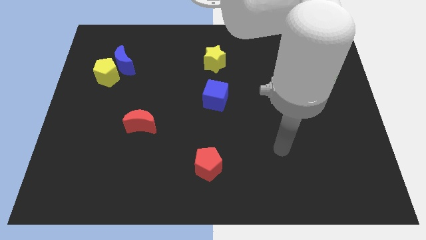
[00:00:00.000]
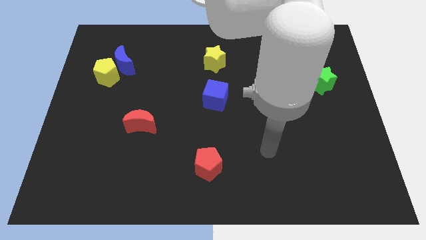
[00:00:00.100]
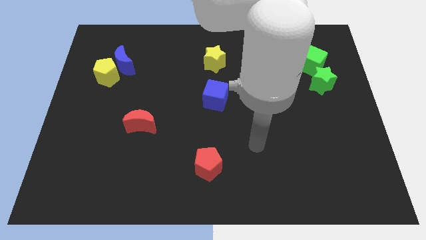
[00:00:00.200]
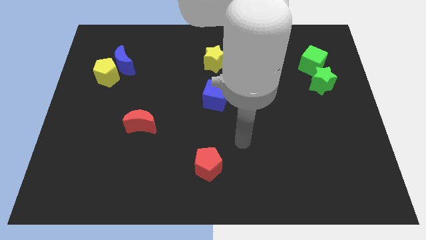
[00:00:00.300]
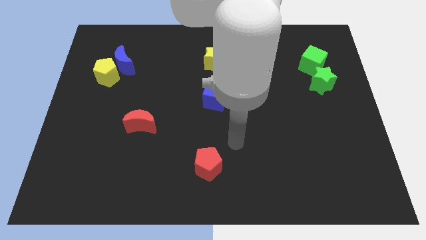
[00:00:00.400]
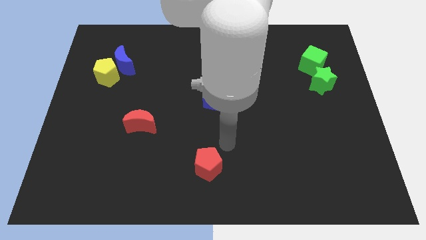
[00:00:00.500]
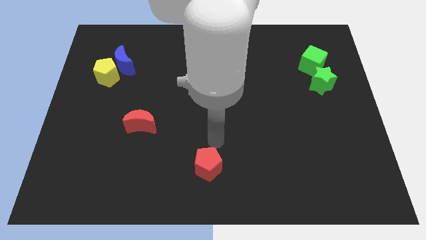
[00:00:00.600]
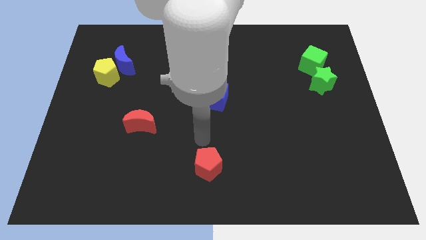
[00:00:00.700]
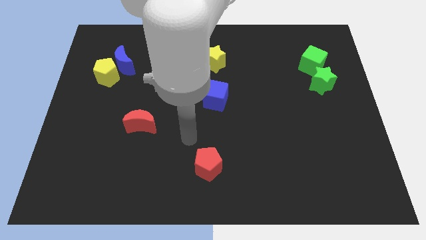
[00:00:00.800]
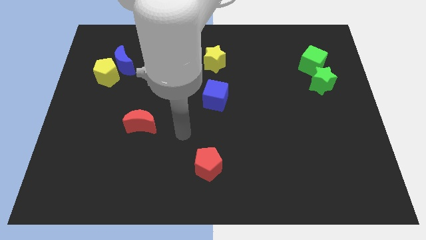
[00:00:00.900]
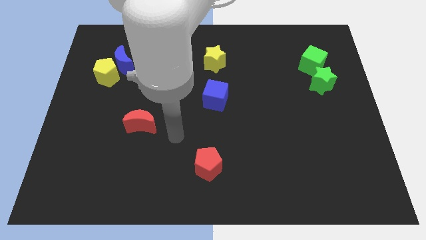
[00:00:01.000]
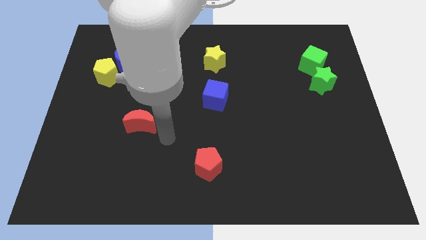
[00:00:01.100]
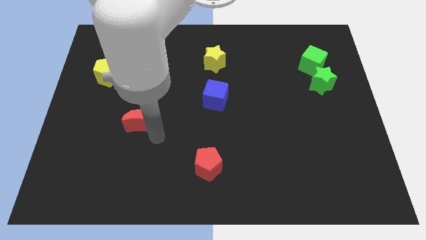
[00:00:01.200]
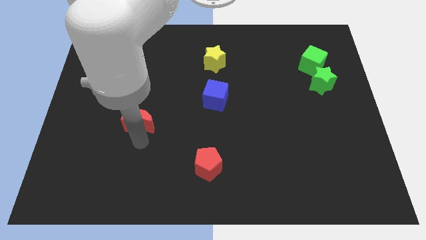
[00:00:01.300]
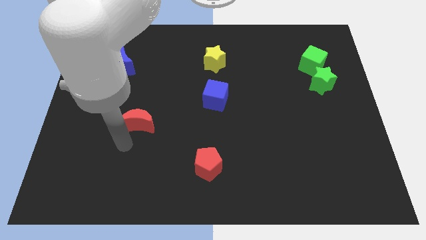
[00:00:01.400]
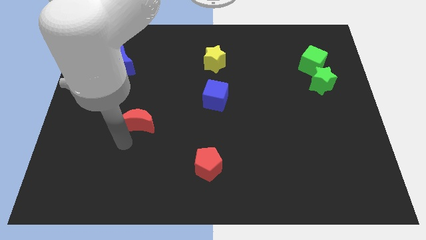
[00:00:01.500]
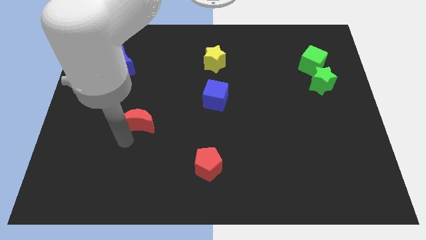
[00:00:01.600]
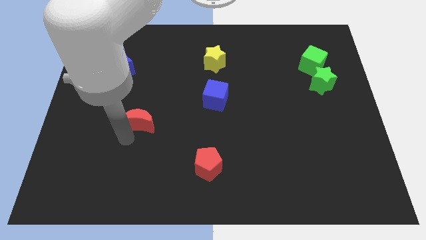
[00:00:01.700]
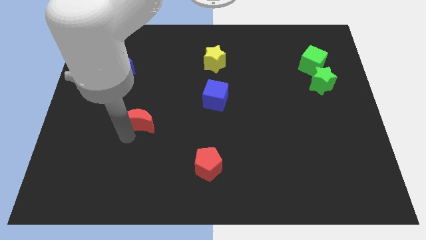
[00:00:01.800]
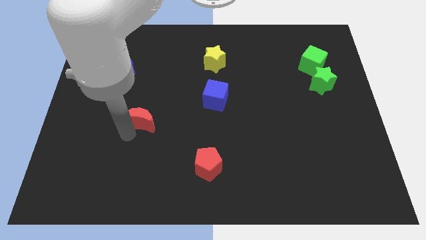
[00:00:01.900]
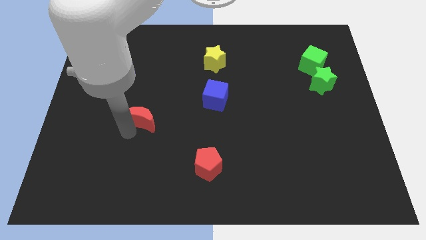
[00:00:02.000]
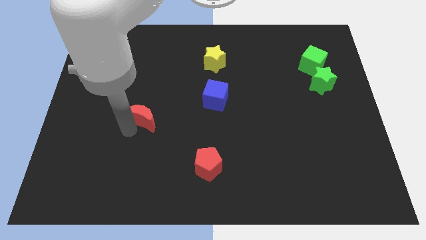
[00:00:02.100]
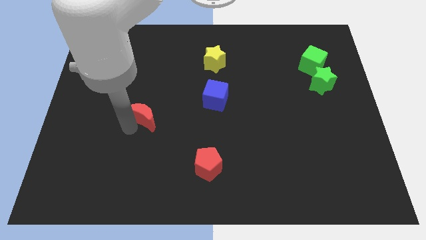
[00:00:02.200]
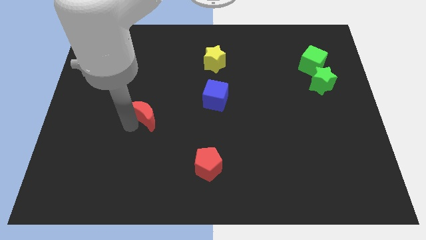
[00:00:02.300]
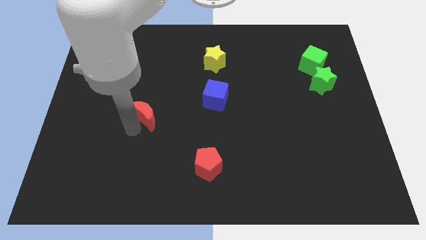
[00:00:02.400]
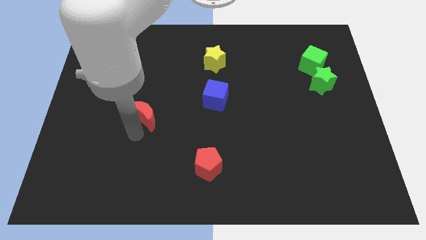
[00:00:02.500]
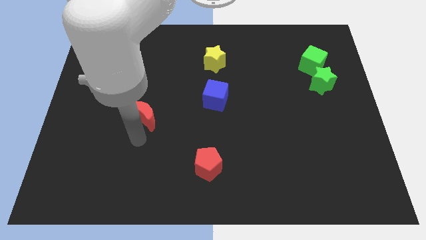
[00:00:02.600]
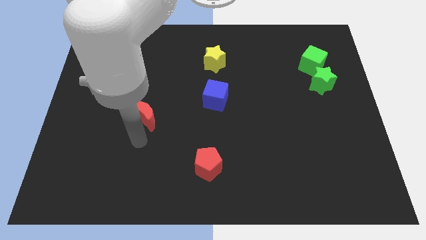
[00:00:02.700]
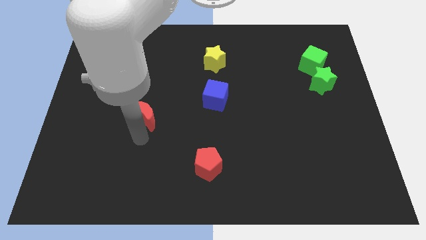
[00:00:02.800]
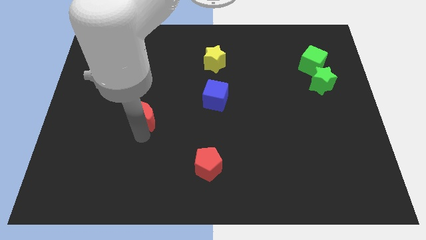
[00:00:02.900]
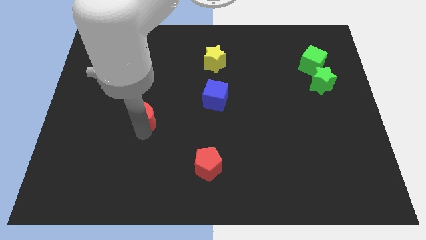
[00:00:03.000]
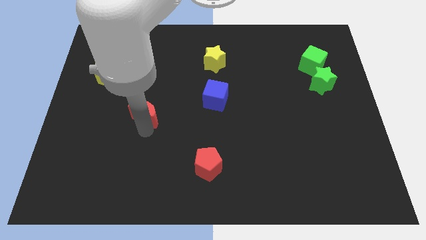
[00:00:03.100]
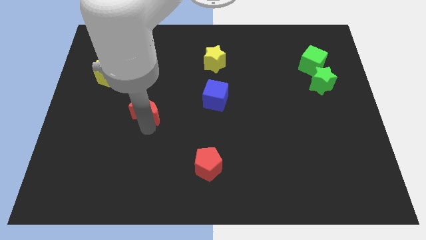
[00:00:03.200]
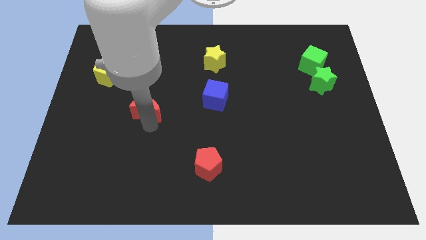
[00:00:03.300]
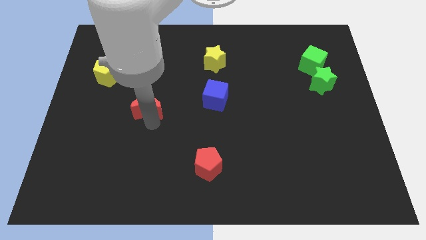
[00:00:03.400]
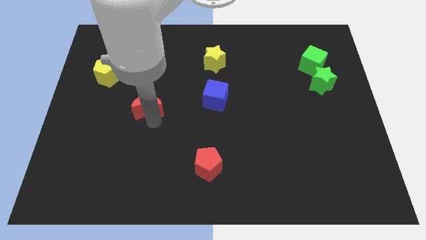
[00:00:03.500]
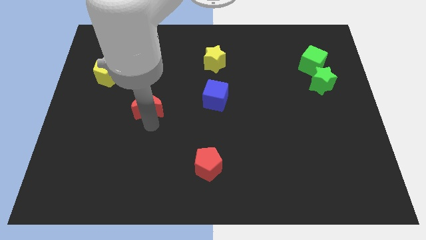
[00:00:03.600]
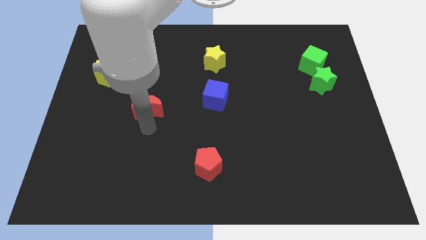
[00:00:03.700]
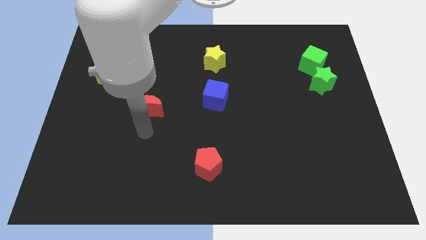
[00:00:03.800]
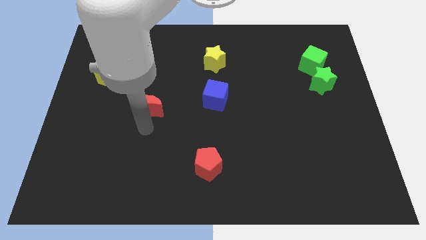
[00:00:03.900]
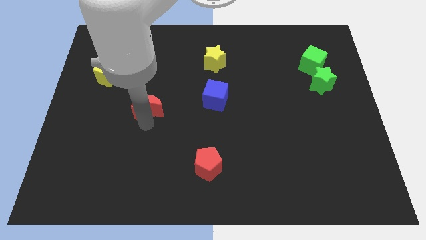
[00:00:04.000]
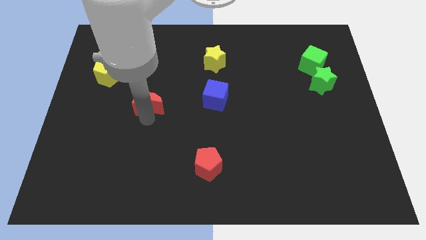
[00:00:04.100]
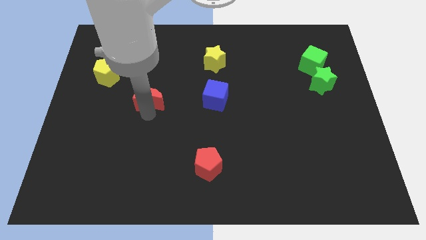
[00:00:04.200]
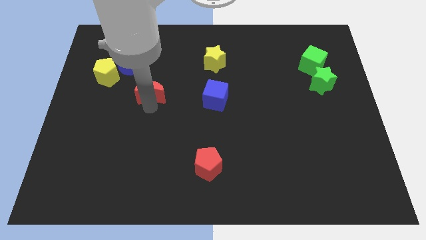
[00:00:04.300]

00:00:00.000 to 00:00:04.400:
push the red moon up a little bit

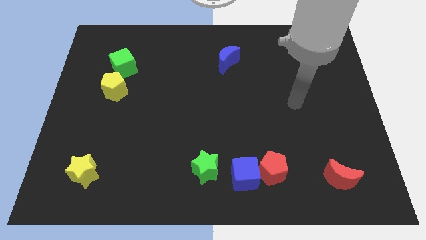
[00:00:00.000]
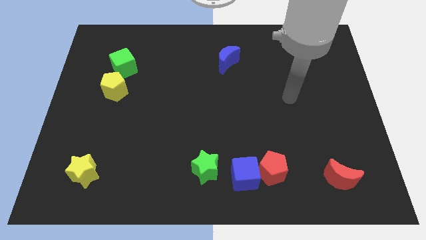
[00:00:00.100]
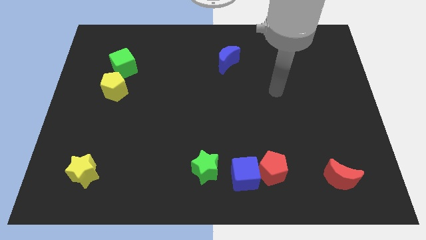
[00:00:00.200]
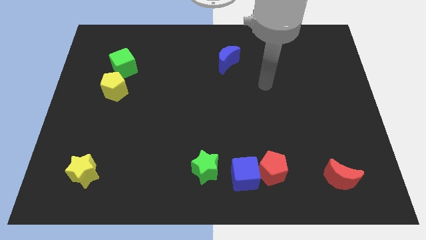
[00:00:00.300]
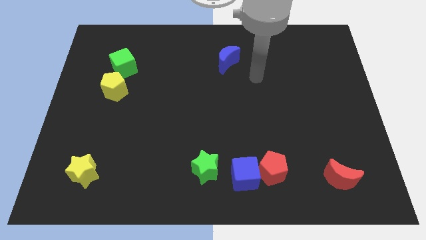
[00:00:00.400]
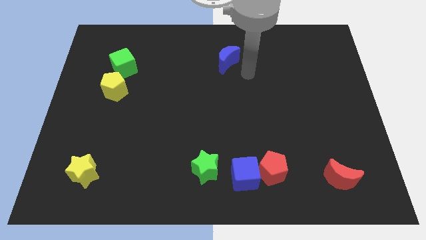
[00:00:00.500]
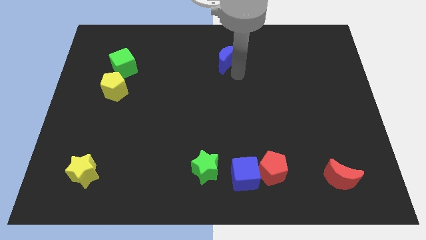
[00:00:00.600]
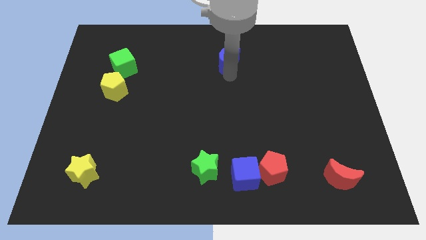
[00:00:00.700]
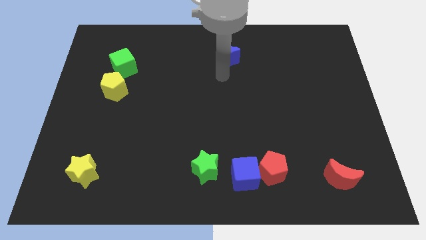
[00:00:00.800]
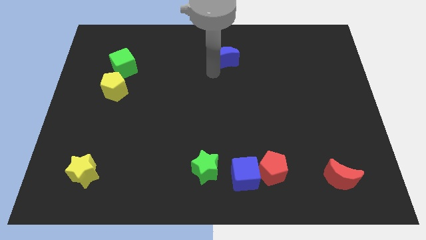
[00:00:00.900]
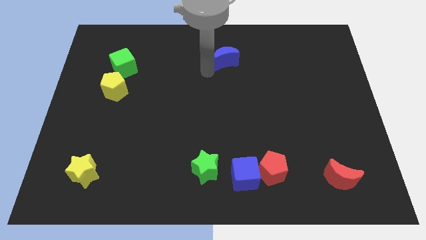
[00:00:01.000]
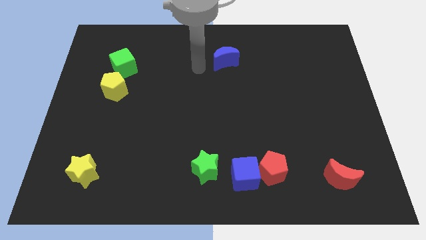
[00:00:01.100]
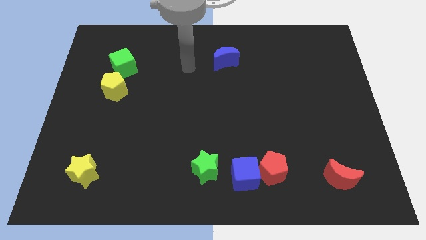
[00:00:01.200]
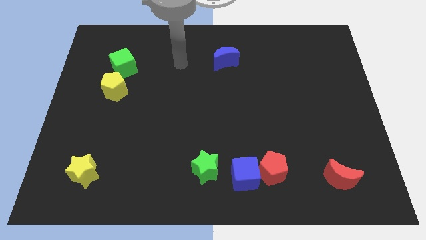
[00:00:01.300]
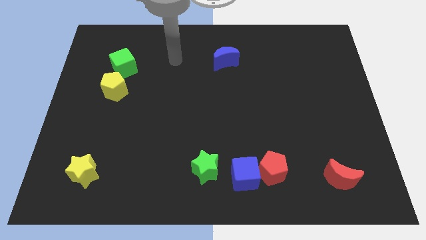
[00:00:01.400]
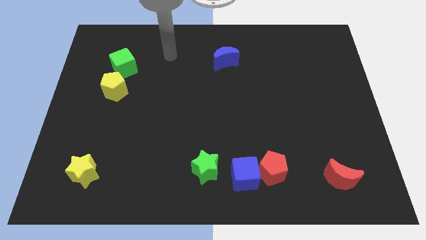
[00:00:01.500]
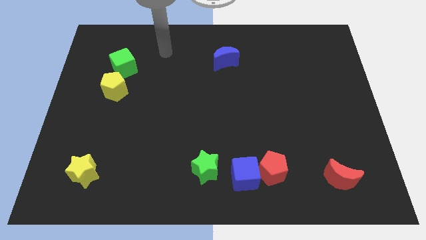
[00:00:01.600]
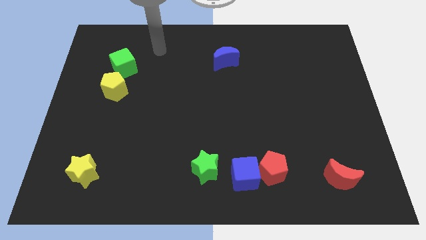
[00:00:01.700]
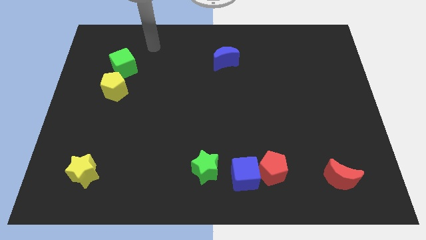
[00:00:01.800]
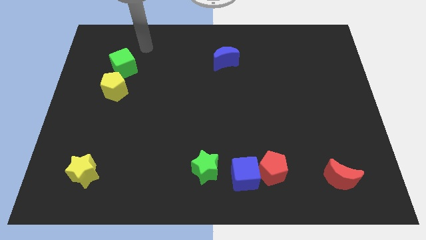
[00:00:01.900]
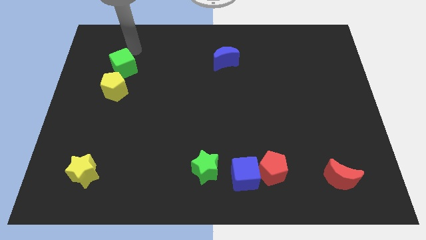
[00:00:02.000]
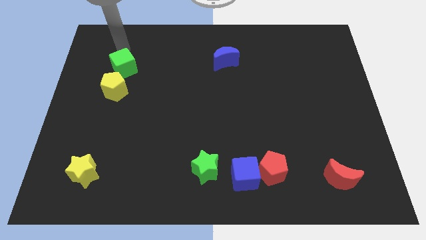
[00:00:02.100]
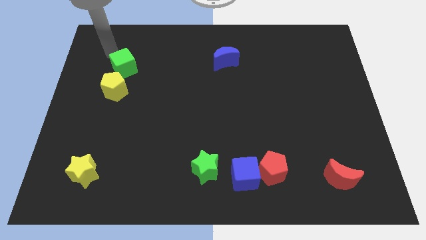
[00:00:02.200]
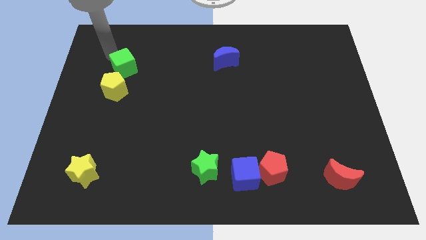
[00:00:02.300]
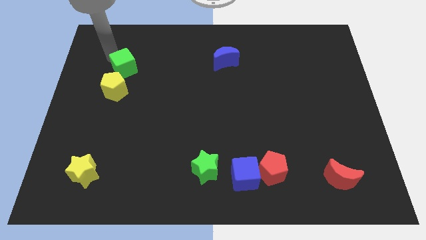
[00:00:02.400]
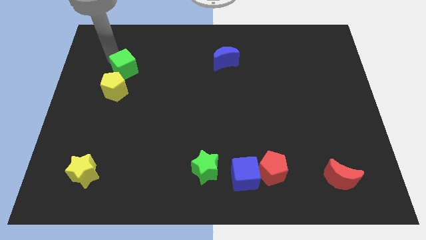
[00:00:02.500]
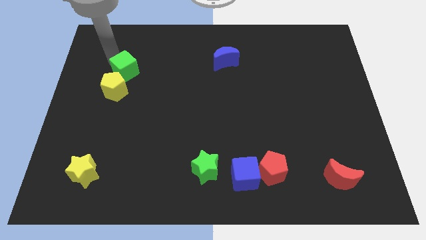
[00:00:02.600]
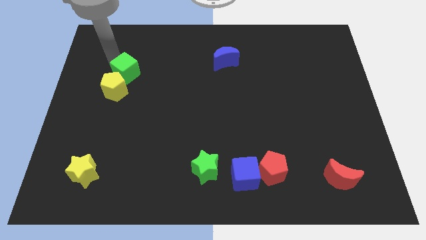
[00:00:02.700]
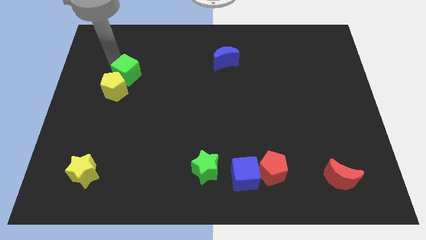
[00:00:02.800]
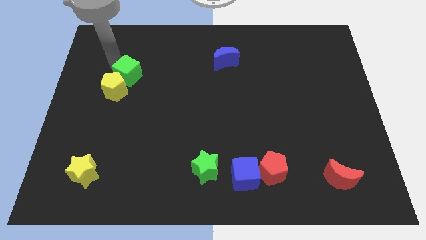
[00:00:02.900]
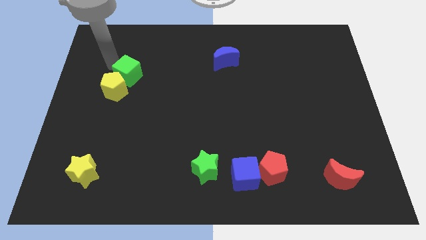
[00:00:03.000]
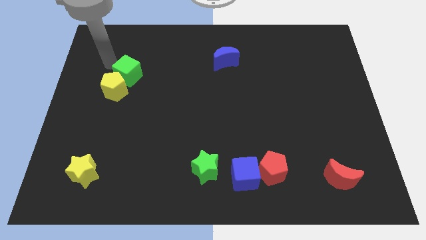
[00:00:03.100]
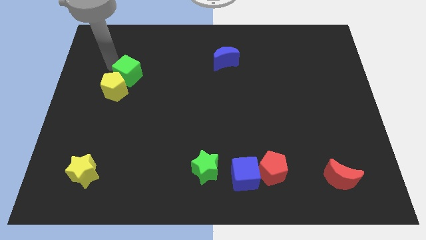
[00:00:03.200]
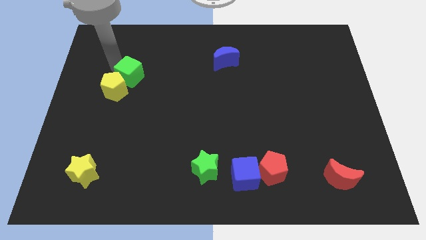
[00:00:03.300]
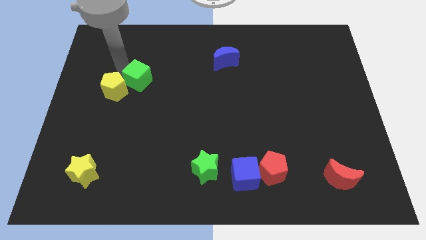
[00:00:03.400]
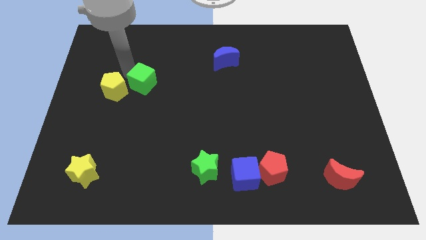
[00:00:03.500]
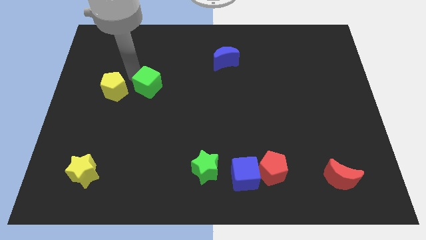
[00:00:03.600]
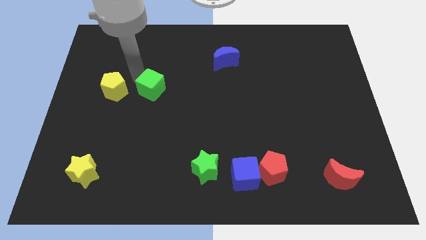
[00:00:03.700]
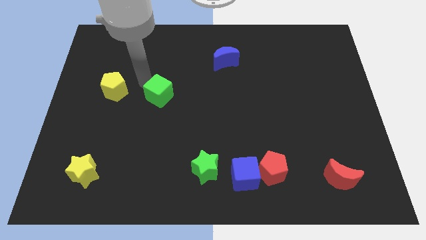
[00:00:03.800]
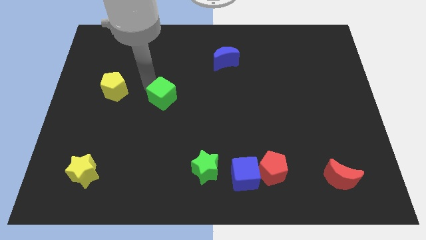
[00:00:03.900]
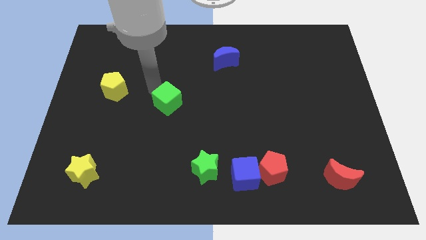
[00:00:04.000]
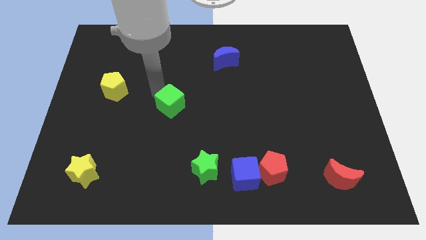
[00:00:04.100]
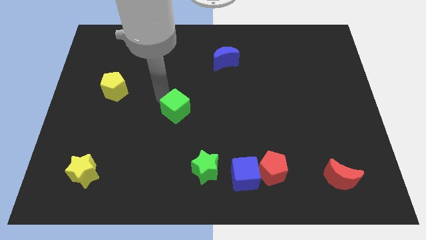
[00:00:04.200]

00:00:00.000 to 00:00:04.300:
move the green cube down and right diagonally
